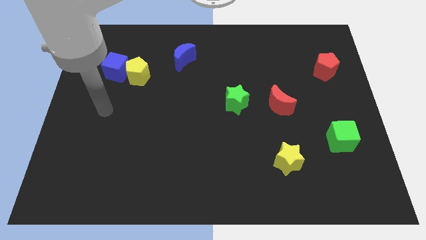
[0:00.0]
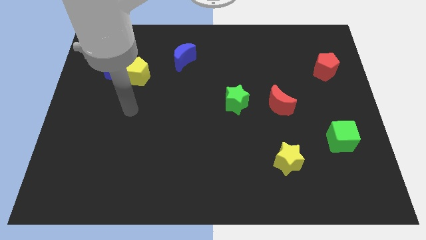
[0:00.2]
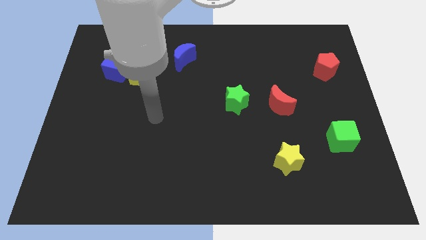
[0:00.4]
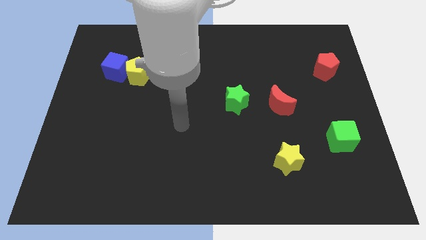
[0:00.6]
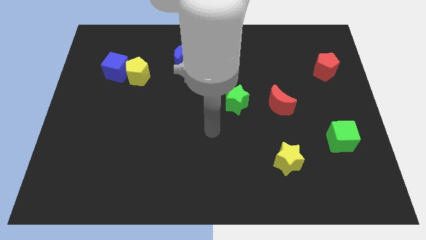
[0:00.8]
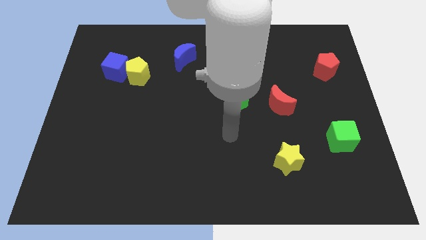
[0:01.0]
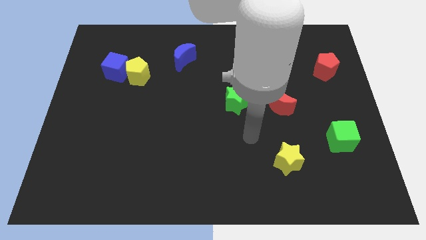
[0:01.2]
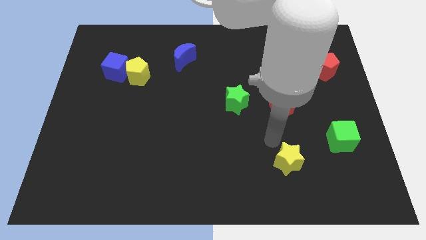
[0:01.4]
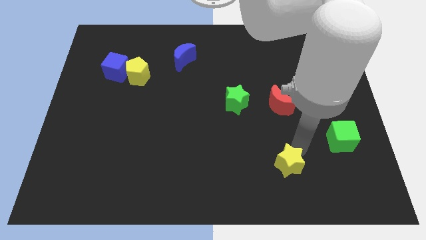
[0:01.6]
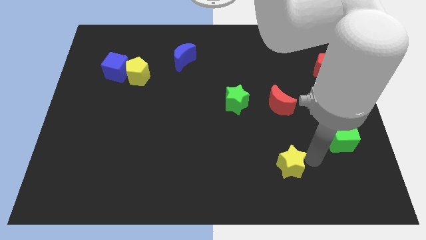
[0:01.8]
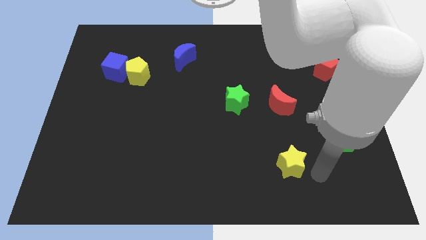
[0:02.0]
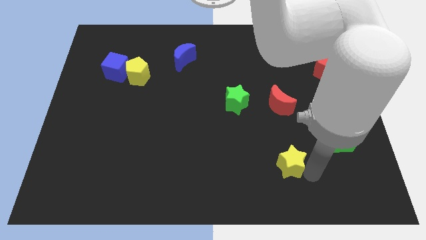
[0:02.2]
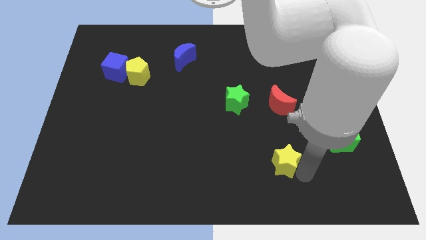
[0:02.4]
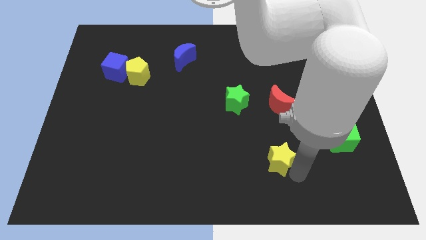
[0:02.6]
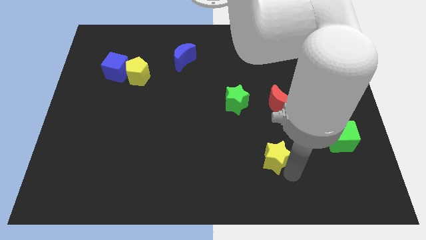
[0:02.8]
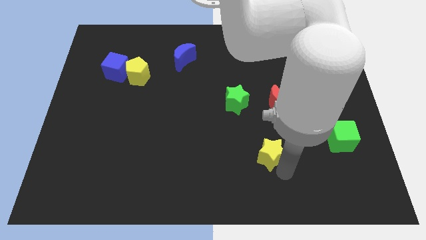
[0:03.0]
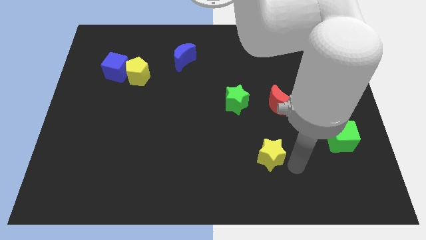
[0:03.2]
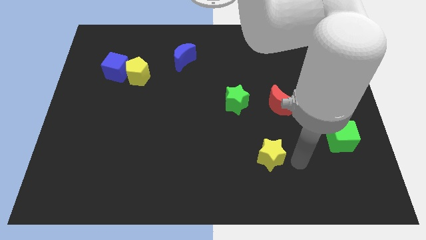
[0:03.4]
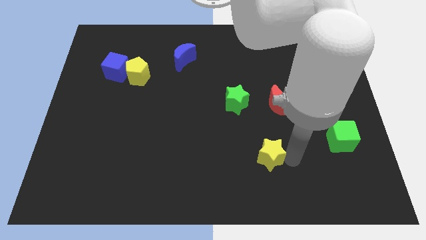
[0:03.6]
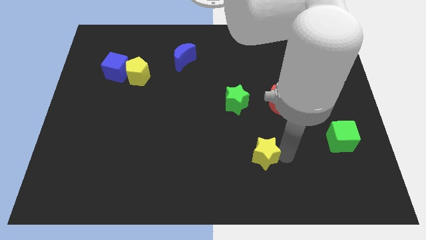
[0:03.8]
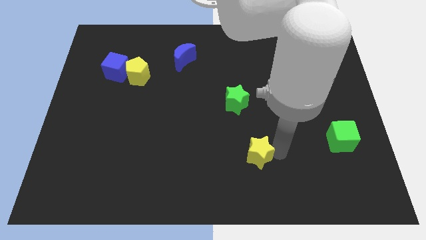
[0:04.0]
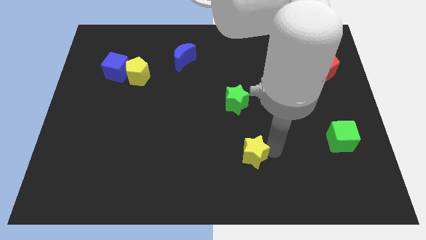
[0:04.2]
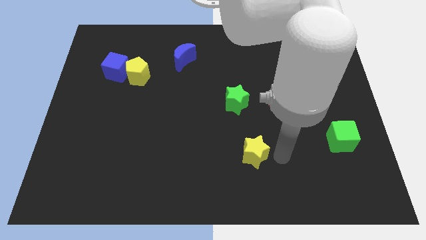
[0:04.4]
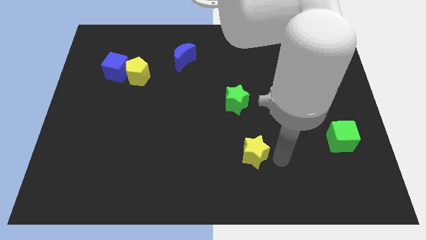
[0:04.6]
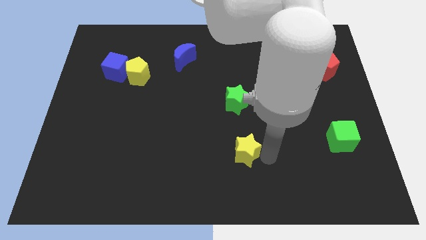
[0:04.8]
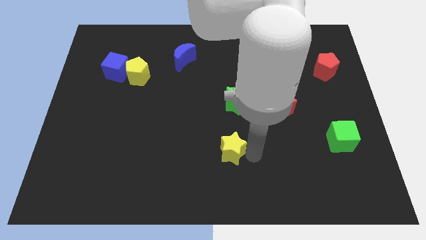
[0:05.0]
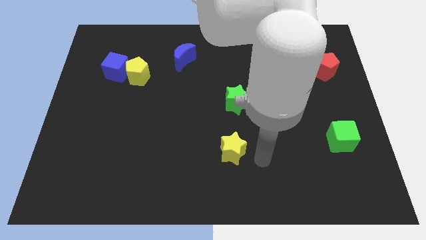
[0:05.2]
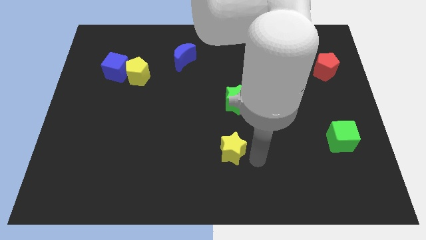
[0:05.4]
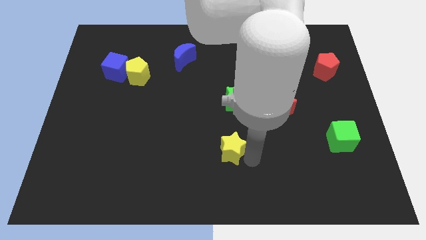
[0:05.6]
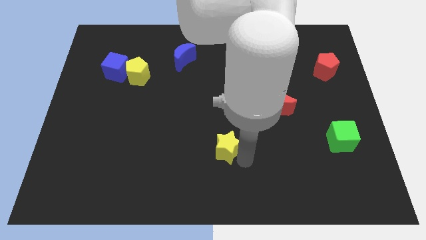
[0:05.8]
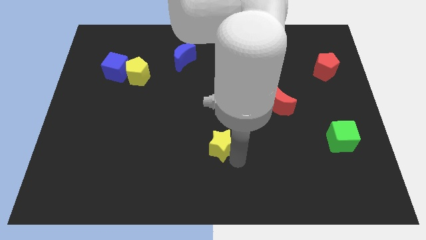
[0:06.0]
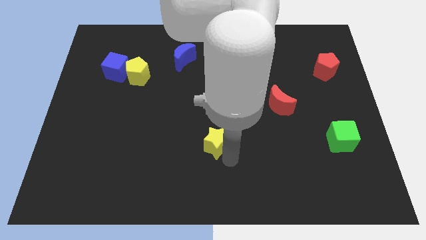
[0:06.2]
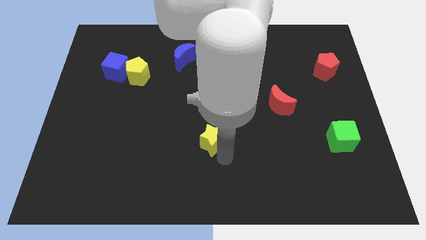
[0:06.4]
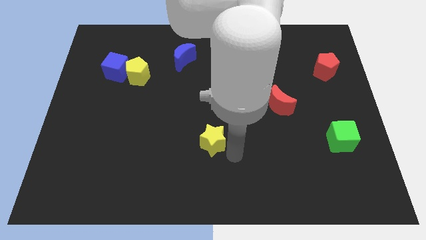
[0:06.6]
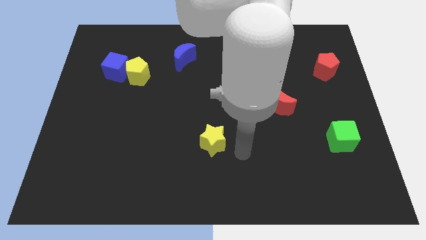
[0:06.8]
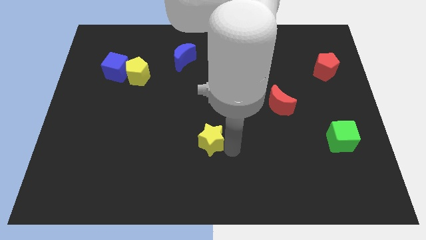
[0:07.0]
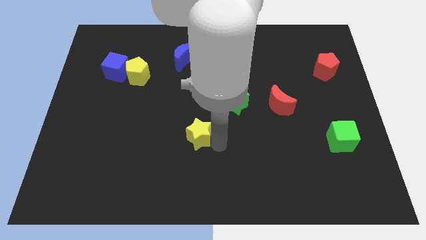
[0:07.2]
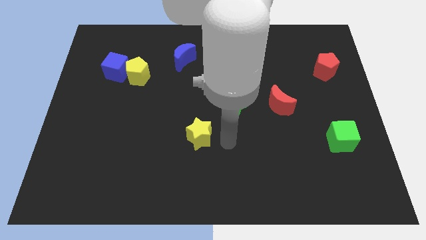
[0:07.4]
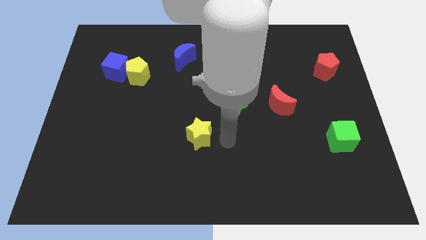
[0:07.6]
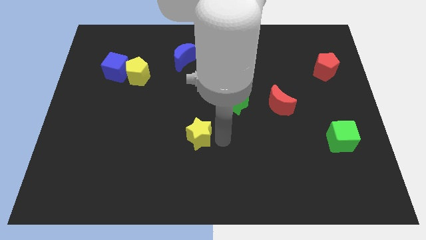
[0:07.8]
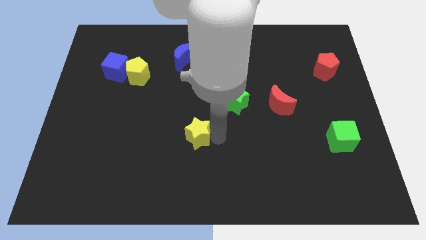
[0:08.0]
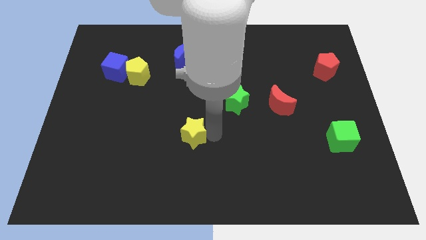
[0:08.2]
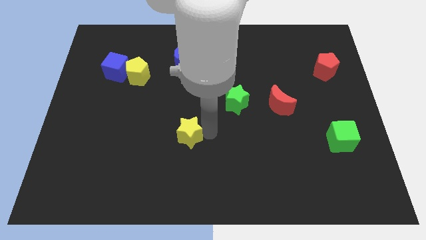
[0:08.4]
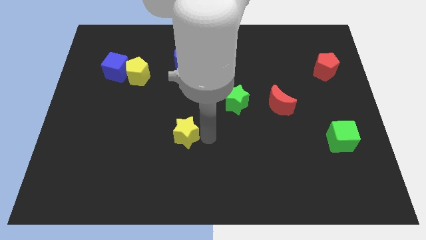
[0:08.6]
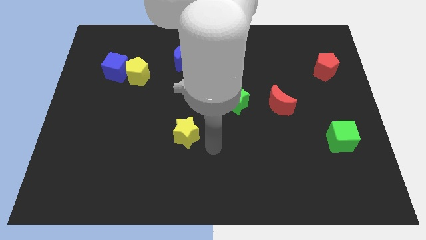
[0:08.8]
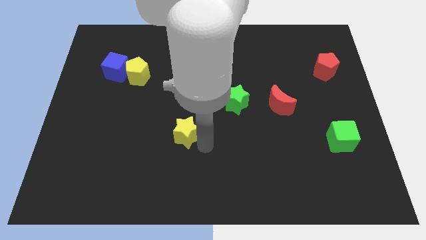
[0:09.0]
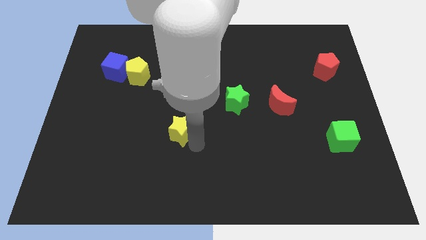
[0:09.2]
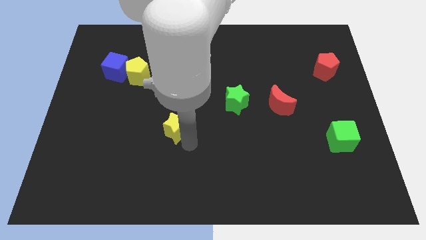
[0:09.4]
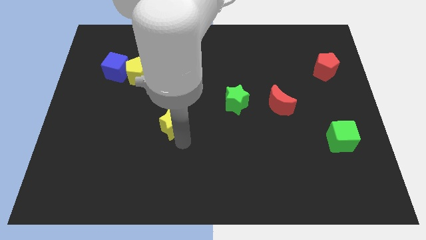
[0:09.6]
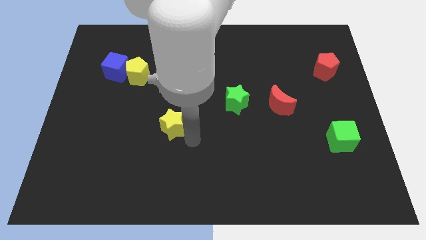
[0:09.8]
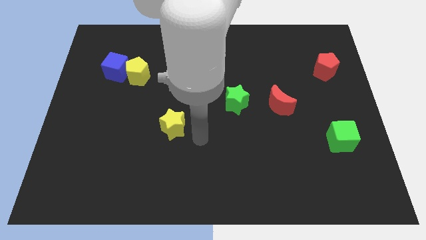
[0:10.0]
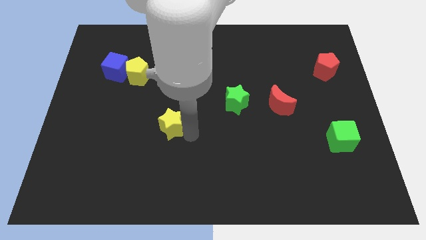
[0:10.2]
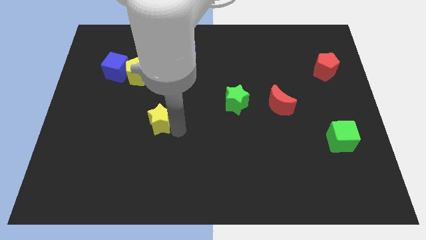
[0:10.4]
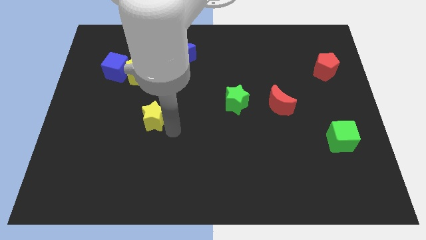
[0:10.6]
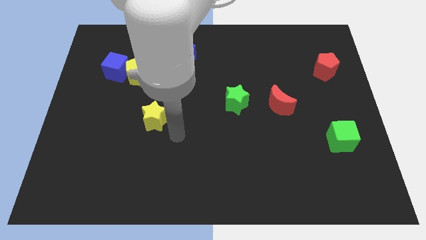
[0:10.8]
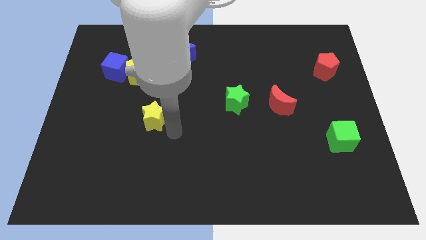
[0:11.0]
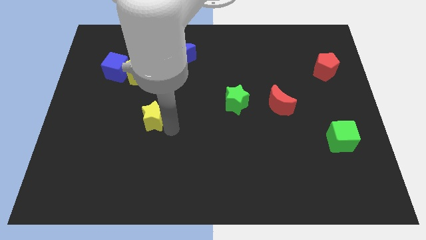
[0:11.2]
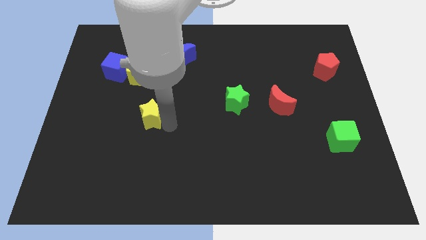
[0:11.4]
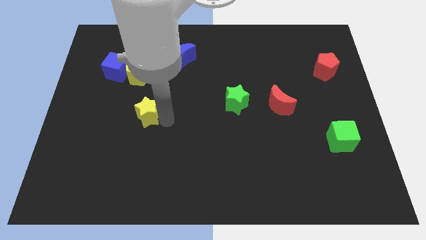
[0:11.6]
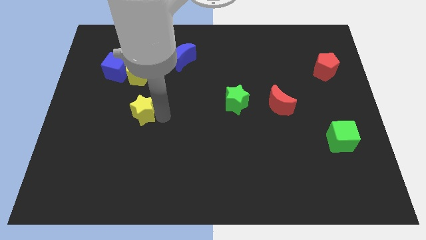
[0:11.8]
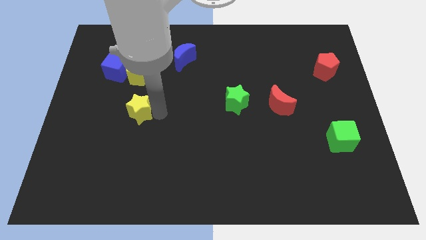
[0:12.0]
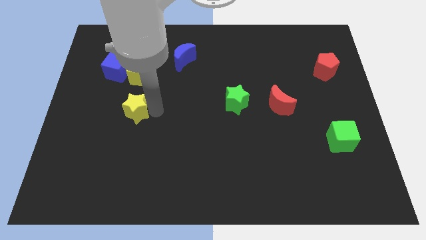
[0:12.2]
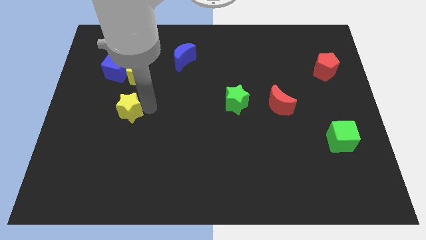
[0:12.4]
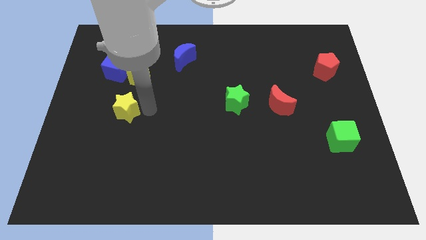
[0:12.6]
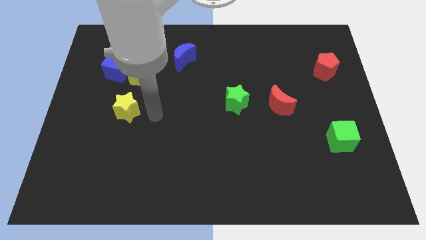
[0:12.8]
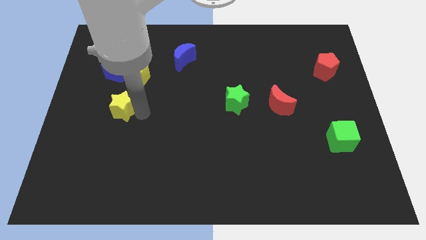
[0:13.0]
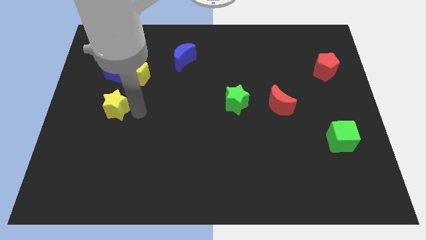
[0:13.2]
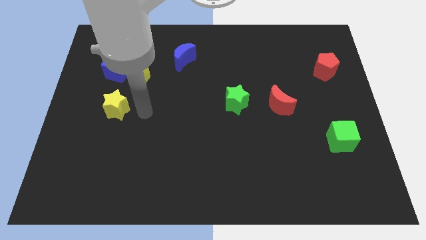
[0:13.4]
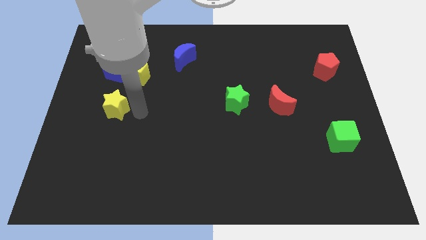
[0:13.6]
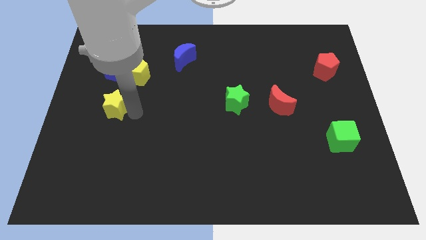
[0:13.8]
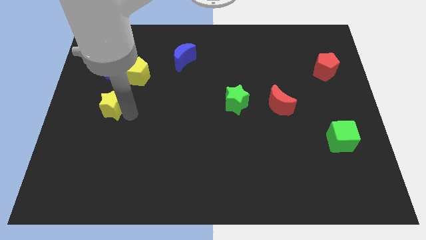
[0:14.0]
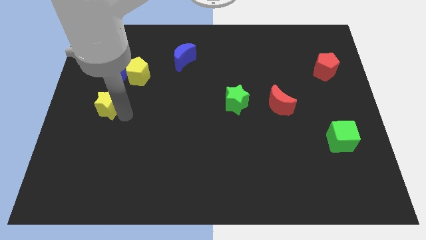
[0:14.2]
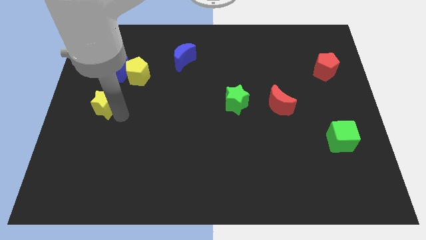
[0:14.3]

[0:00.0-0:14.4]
slide the yellow star to the left side
